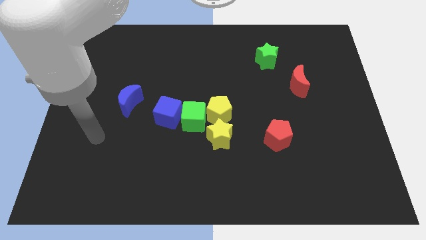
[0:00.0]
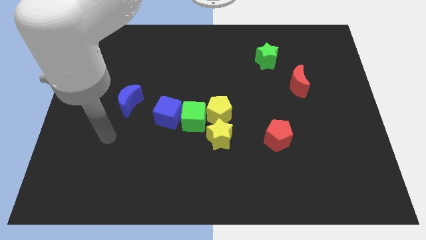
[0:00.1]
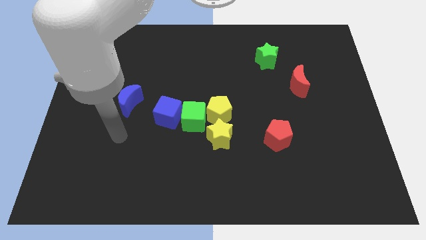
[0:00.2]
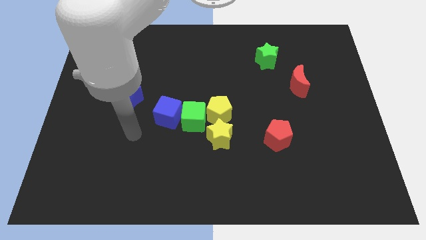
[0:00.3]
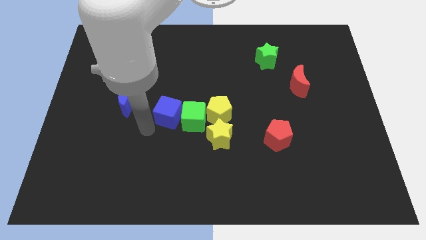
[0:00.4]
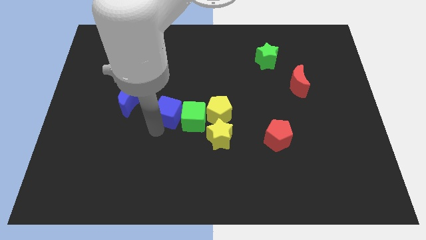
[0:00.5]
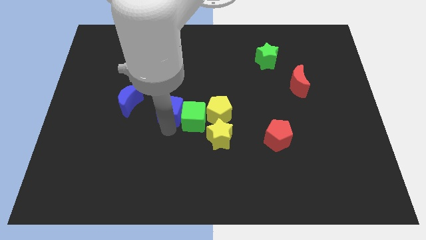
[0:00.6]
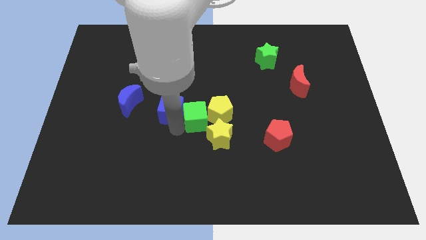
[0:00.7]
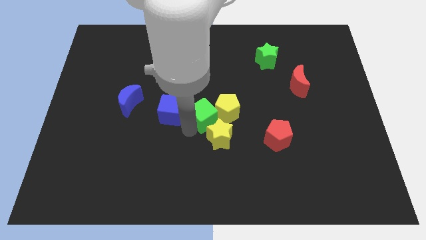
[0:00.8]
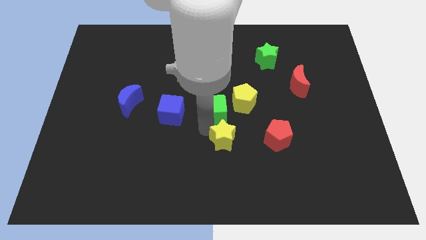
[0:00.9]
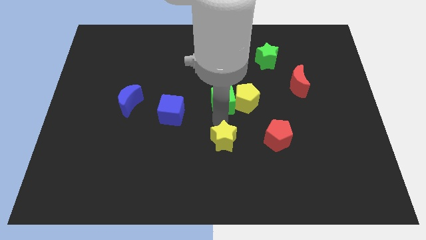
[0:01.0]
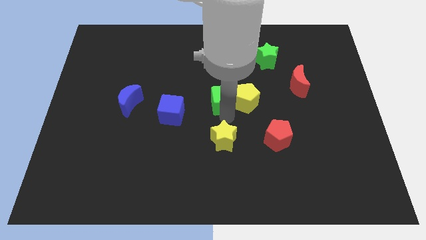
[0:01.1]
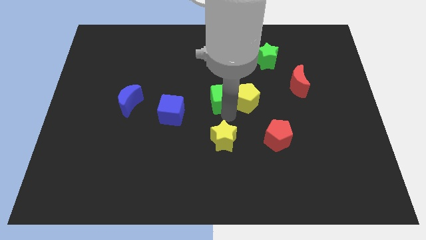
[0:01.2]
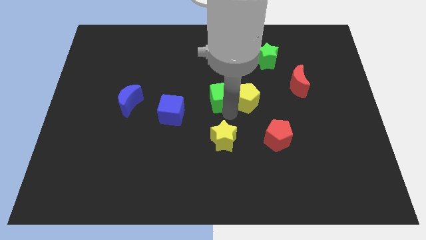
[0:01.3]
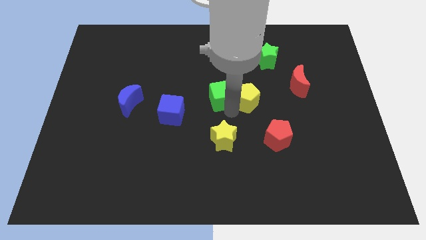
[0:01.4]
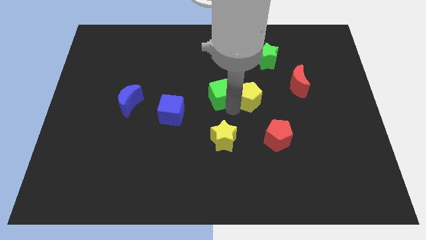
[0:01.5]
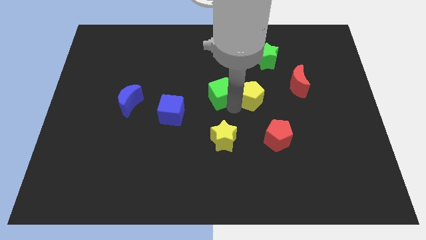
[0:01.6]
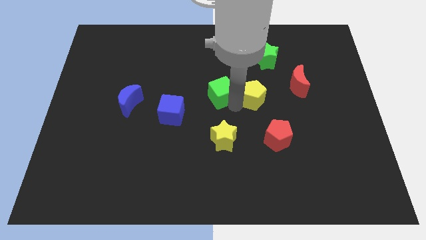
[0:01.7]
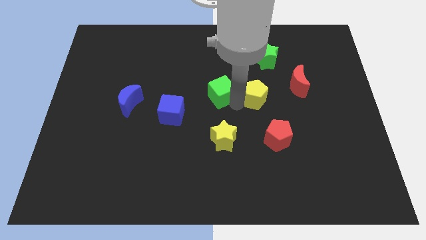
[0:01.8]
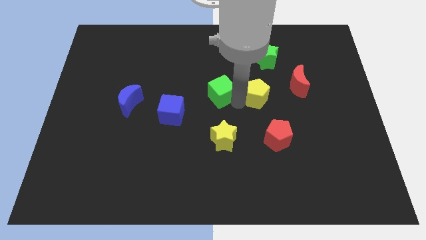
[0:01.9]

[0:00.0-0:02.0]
pull the yellow pentagon apart from the green cube and yellow star

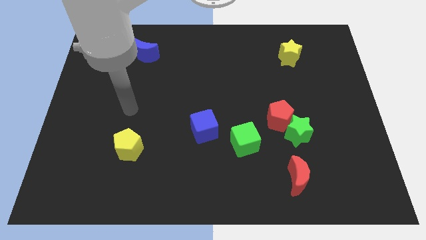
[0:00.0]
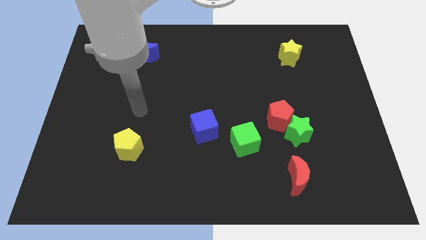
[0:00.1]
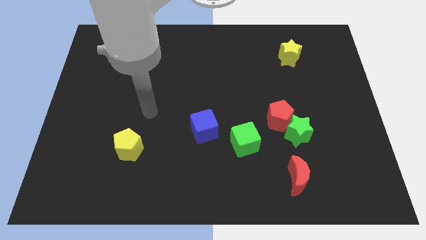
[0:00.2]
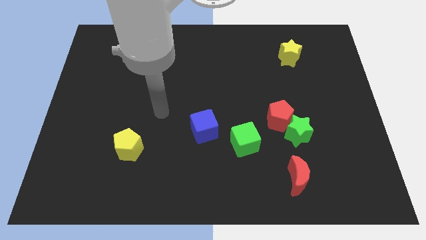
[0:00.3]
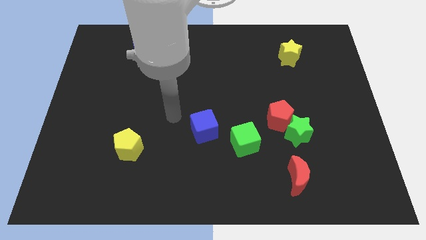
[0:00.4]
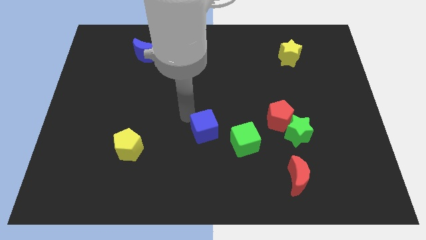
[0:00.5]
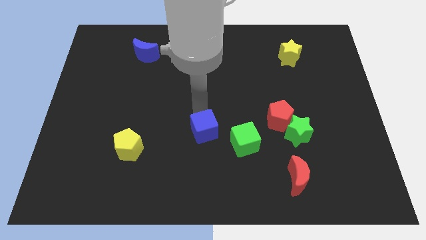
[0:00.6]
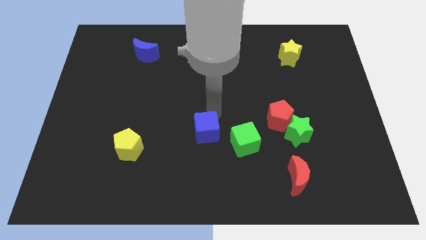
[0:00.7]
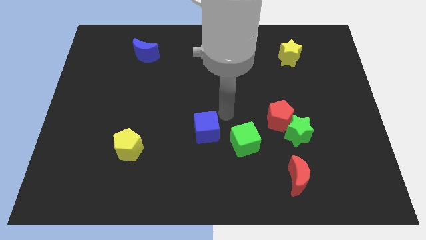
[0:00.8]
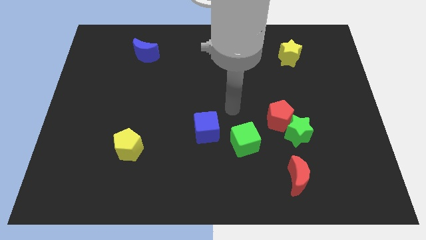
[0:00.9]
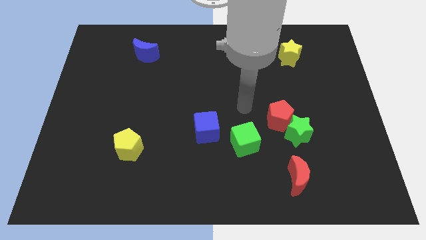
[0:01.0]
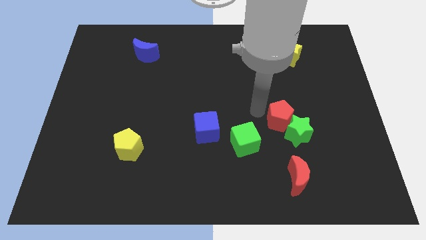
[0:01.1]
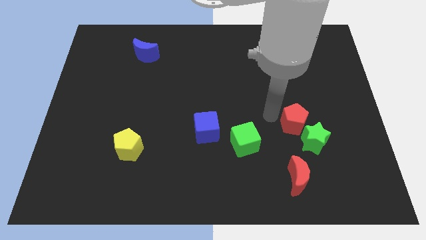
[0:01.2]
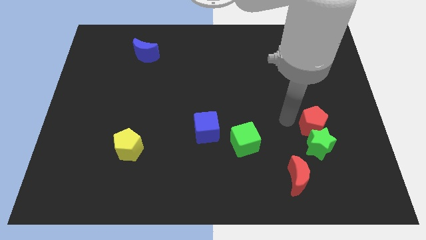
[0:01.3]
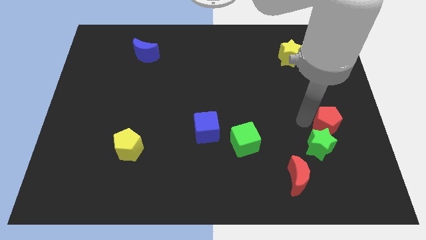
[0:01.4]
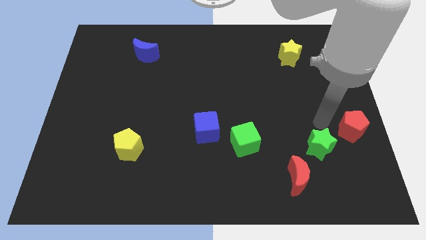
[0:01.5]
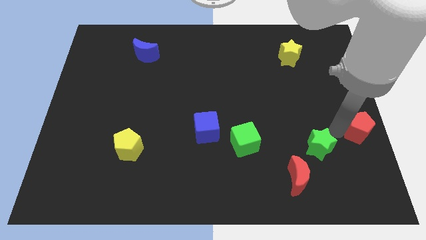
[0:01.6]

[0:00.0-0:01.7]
separate the green star from the red pentagon

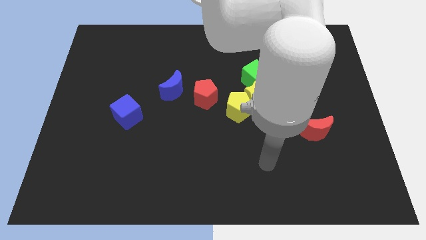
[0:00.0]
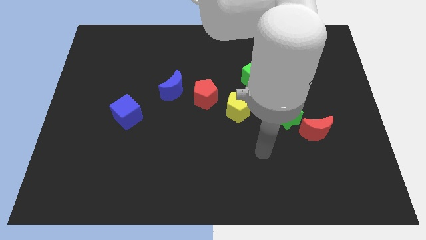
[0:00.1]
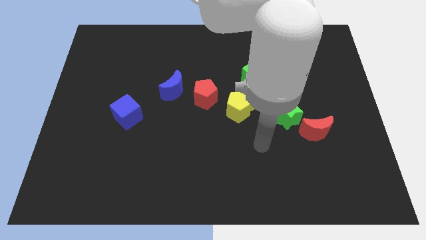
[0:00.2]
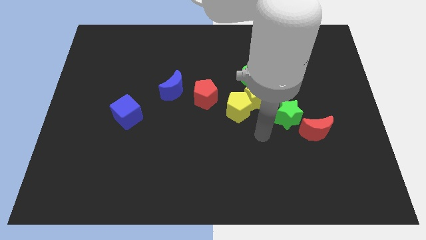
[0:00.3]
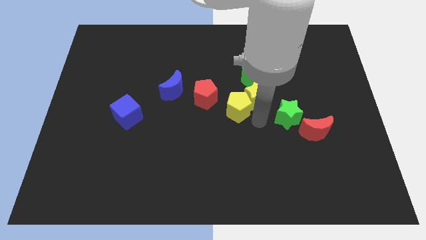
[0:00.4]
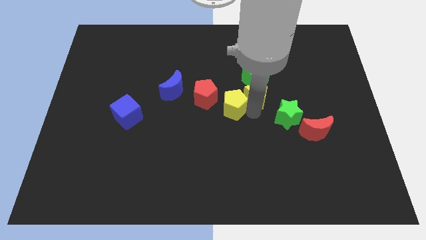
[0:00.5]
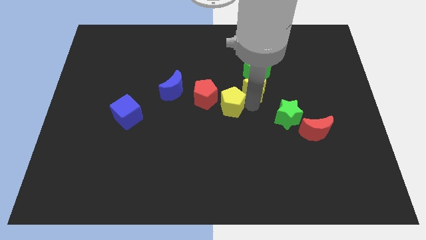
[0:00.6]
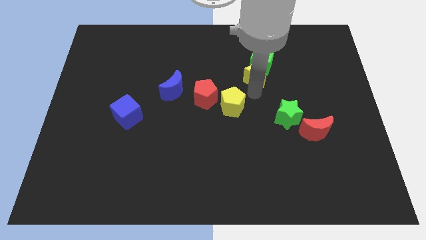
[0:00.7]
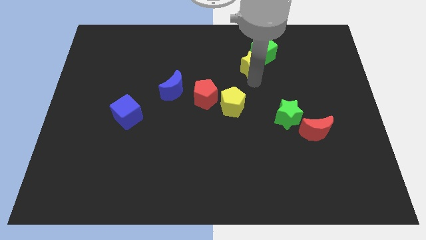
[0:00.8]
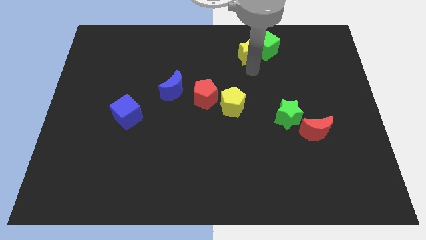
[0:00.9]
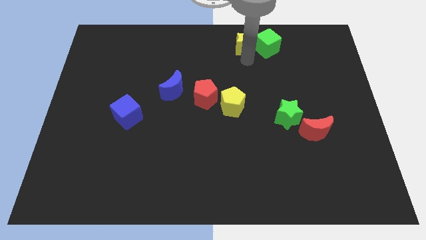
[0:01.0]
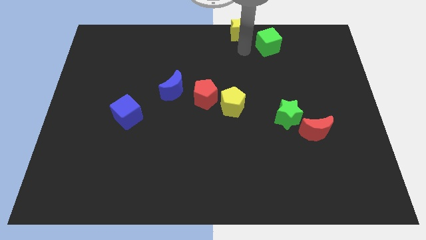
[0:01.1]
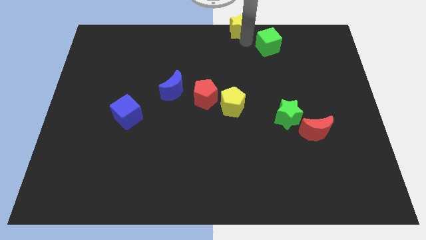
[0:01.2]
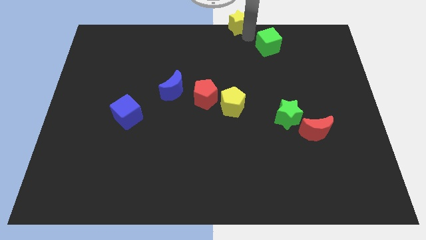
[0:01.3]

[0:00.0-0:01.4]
pull the green cube apart from the yellow star

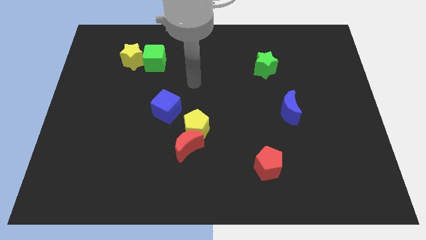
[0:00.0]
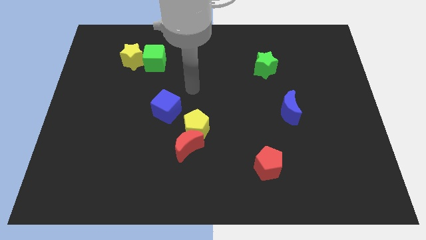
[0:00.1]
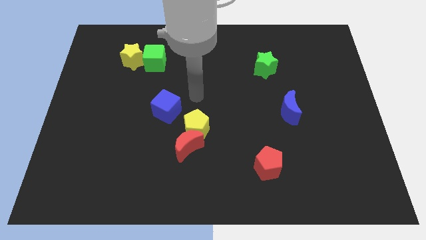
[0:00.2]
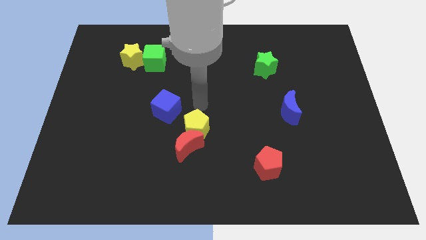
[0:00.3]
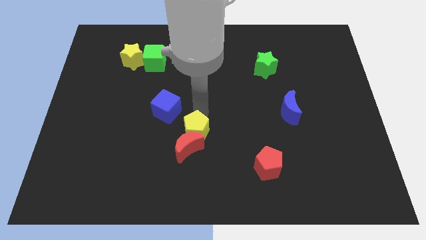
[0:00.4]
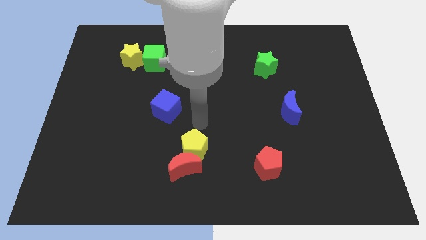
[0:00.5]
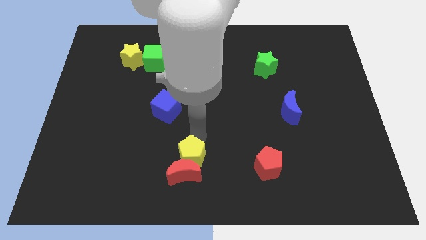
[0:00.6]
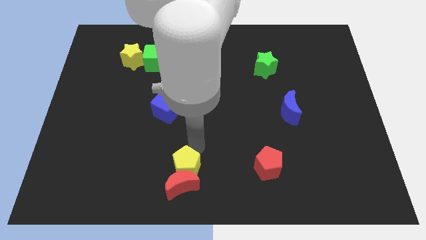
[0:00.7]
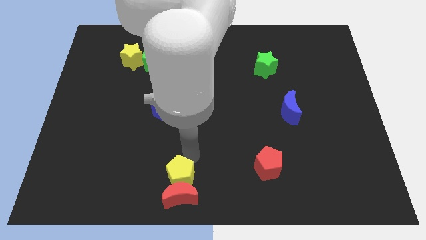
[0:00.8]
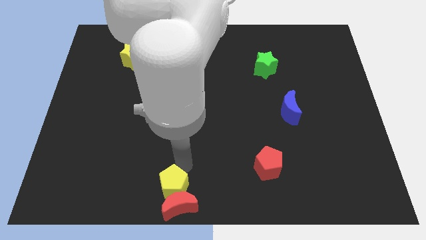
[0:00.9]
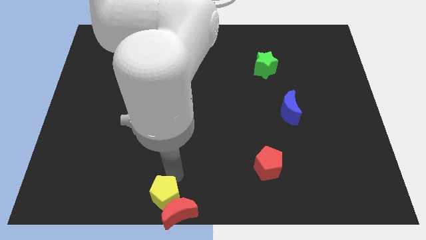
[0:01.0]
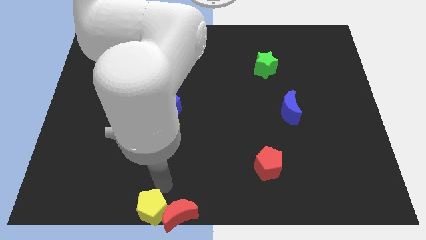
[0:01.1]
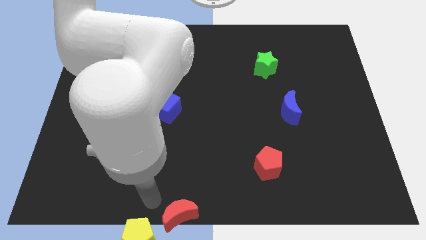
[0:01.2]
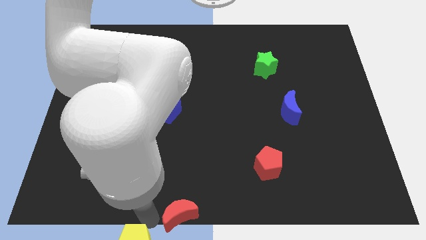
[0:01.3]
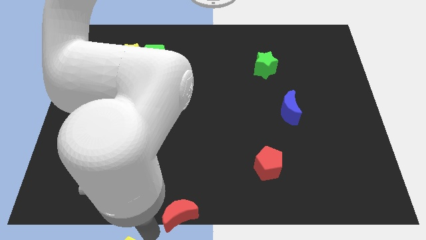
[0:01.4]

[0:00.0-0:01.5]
separate the red moon from the yellow pentagon

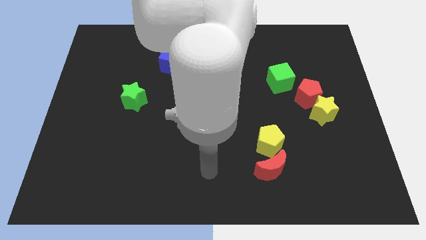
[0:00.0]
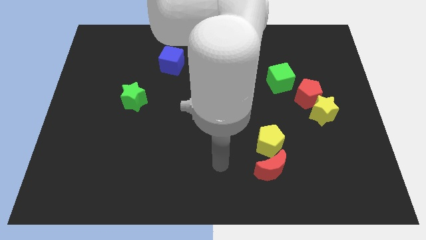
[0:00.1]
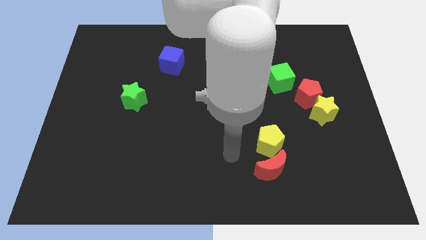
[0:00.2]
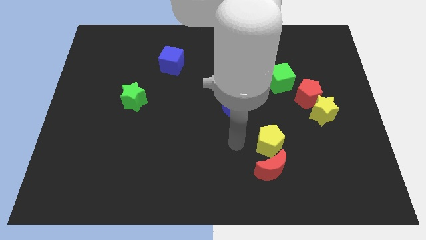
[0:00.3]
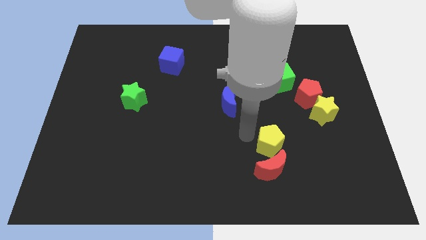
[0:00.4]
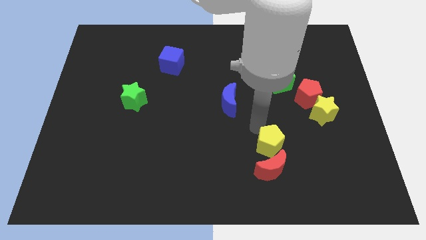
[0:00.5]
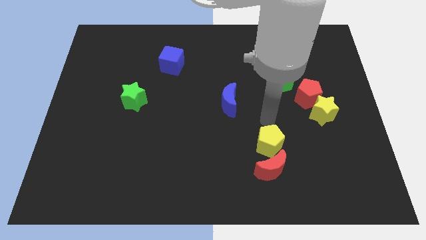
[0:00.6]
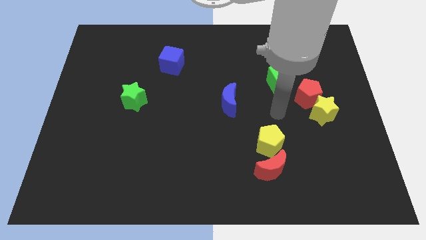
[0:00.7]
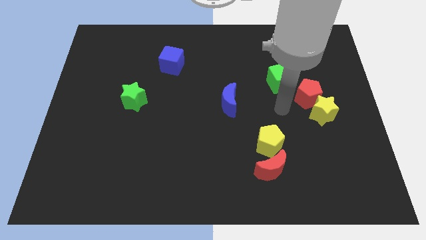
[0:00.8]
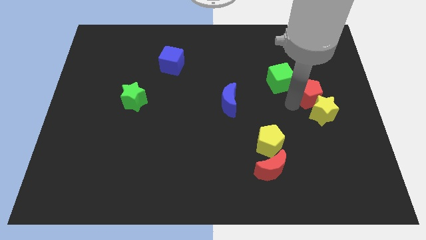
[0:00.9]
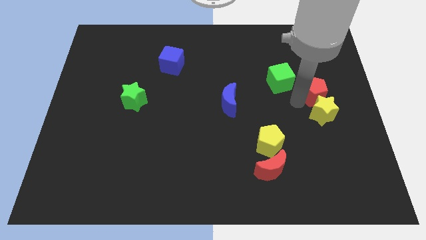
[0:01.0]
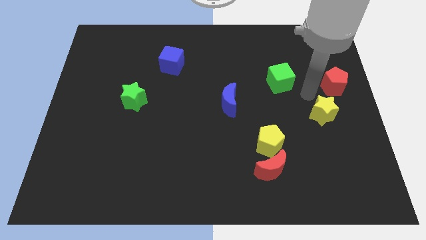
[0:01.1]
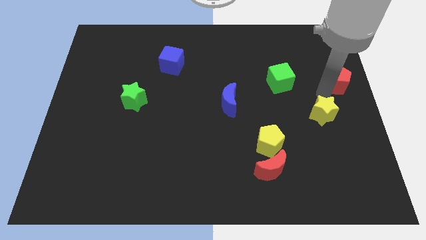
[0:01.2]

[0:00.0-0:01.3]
pull the yellow star apart from the red pentagon

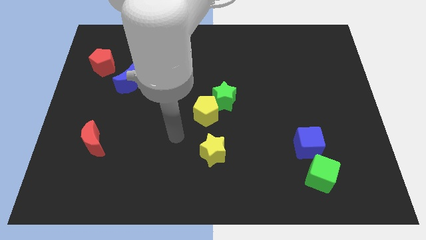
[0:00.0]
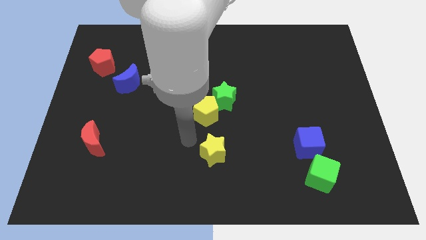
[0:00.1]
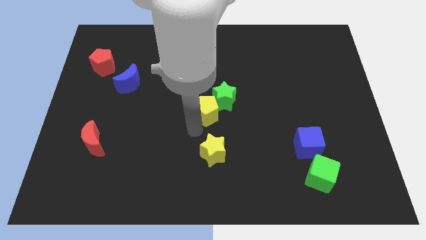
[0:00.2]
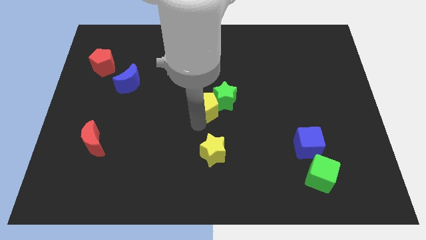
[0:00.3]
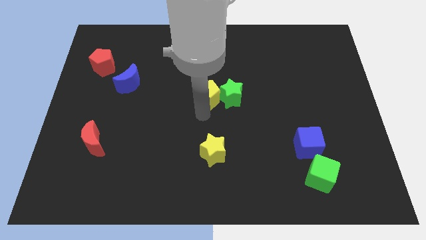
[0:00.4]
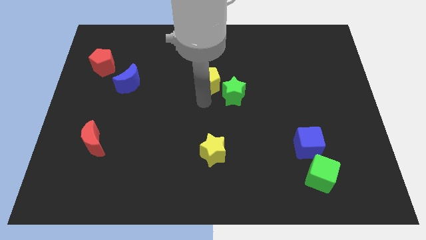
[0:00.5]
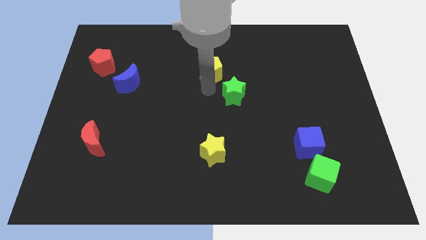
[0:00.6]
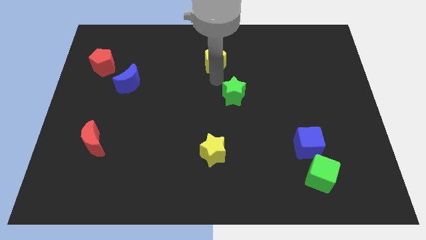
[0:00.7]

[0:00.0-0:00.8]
pull the green star apart from the yellow pentagon

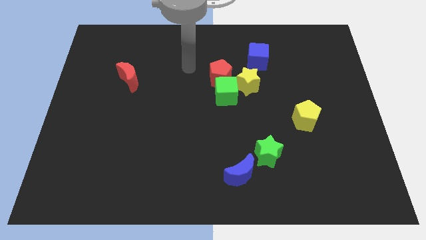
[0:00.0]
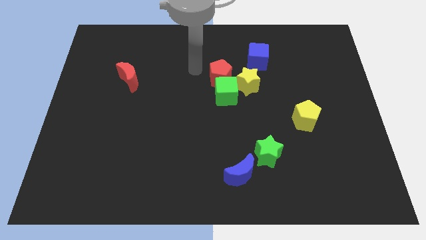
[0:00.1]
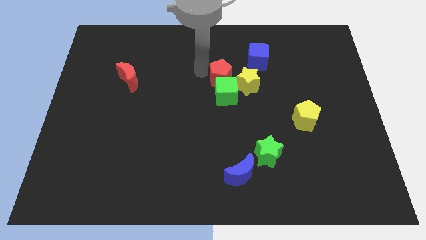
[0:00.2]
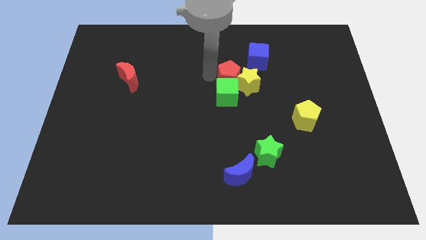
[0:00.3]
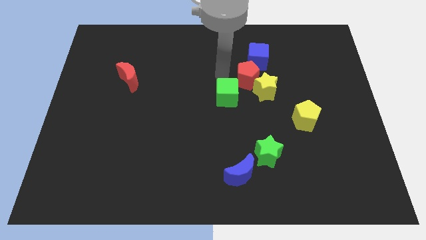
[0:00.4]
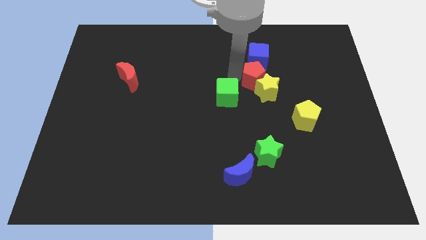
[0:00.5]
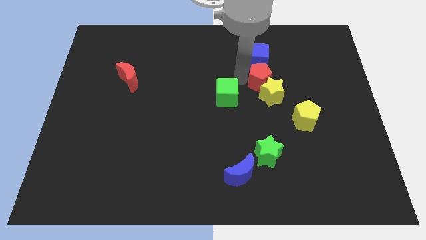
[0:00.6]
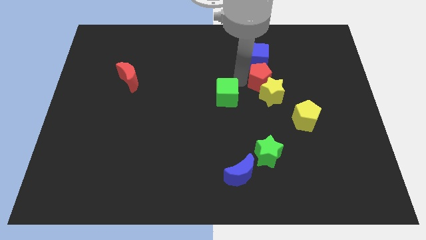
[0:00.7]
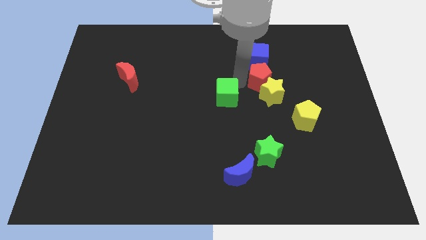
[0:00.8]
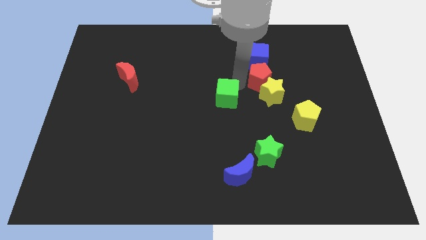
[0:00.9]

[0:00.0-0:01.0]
move the green cube away from the red pentagon and yellow star
